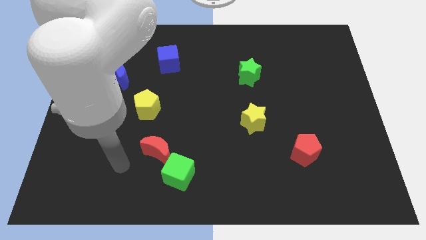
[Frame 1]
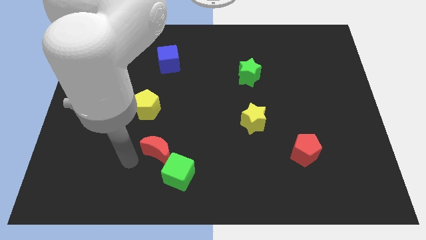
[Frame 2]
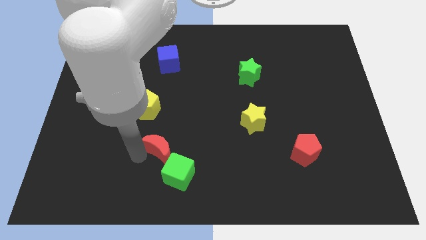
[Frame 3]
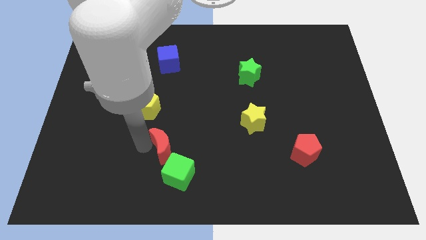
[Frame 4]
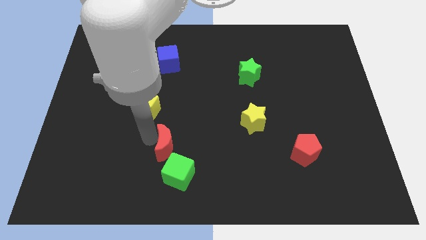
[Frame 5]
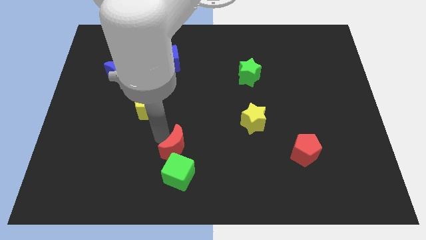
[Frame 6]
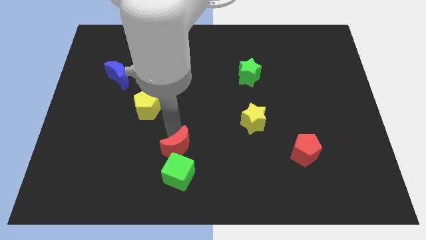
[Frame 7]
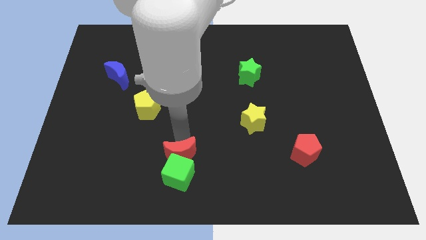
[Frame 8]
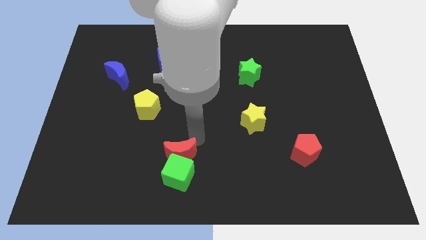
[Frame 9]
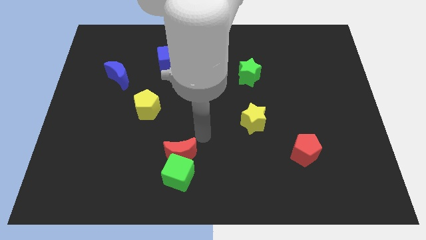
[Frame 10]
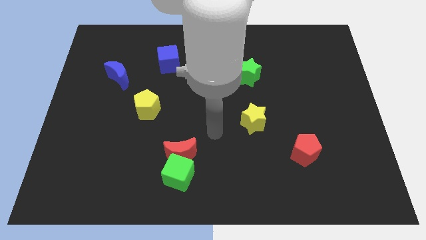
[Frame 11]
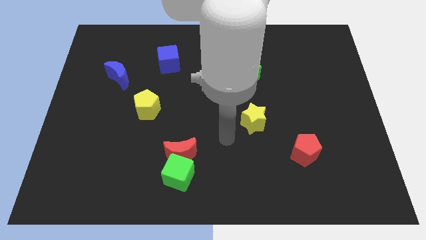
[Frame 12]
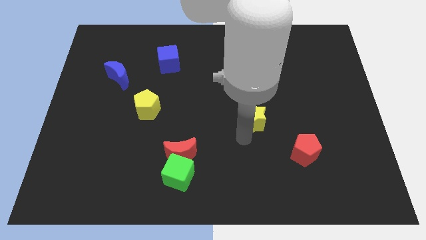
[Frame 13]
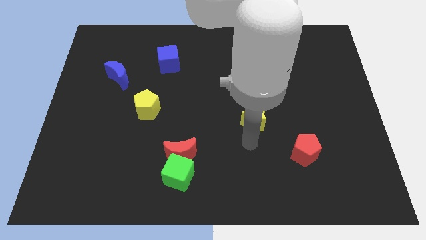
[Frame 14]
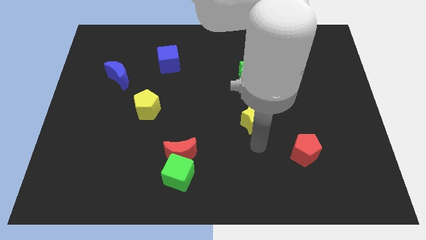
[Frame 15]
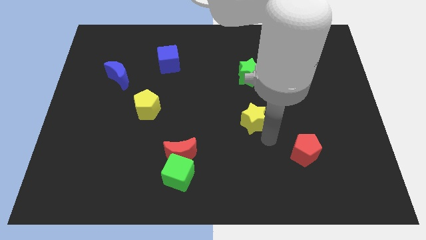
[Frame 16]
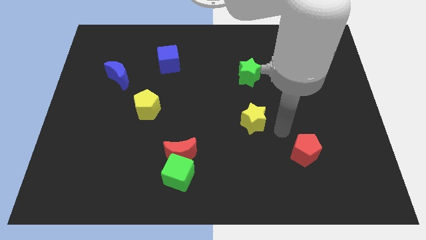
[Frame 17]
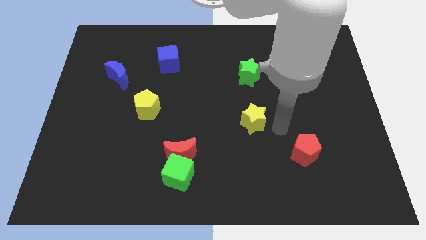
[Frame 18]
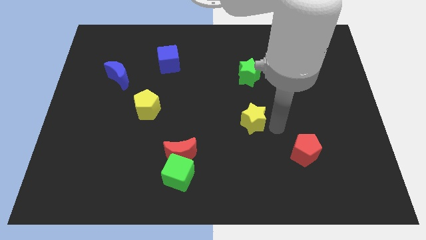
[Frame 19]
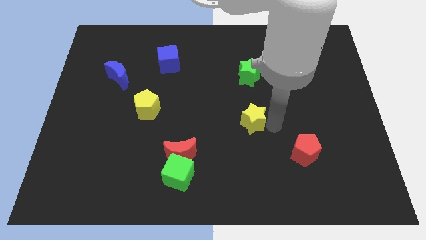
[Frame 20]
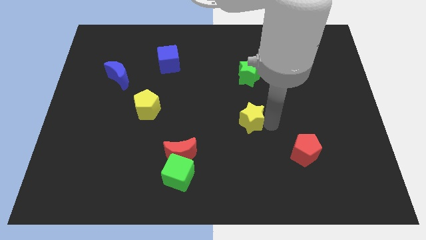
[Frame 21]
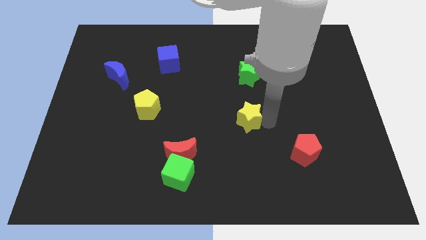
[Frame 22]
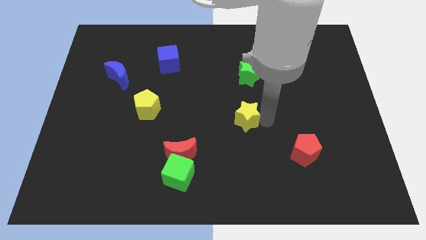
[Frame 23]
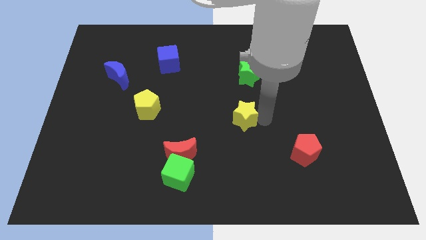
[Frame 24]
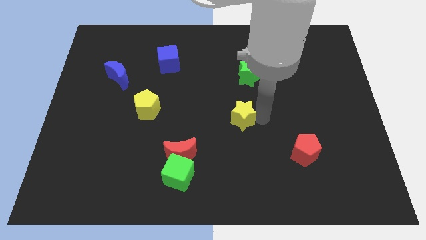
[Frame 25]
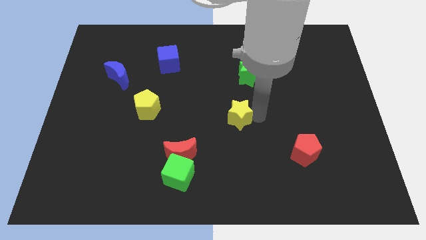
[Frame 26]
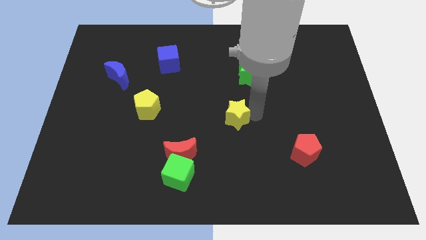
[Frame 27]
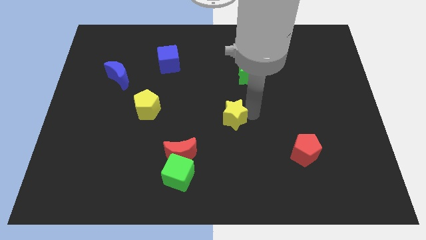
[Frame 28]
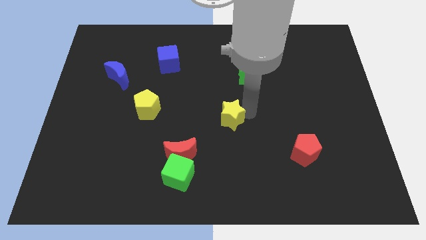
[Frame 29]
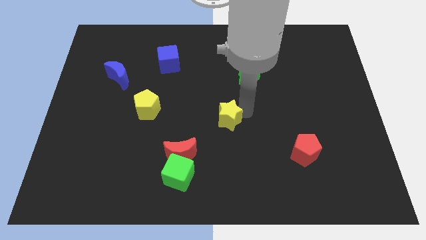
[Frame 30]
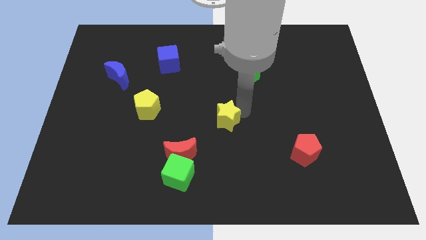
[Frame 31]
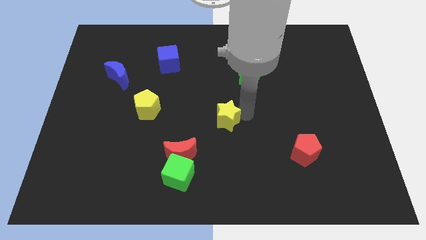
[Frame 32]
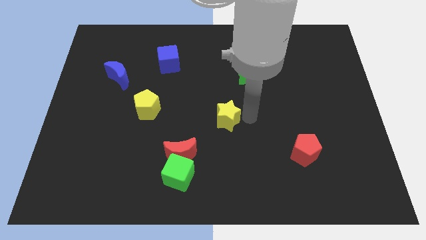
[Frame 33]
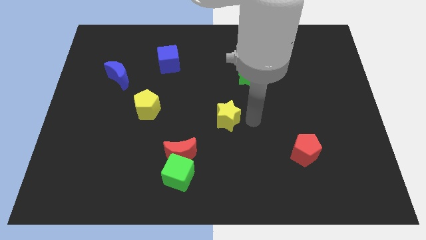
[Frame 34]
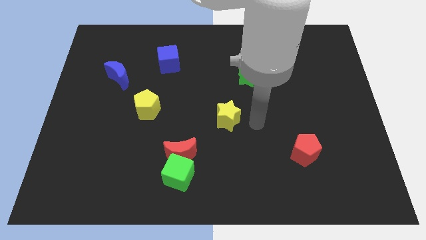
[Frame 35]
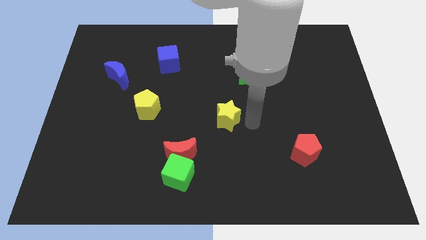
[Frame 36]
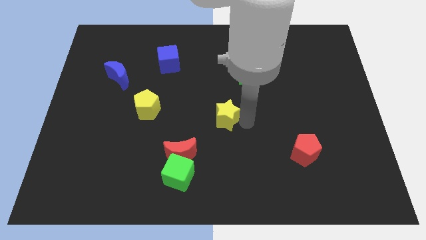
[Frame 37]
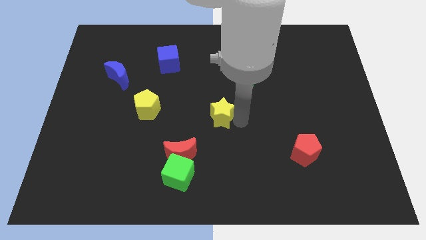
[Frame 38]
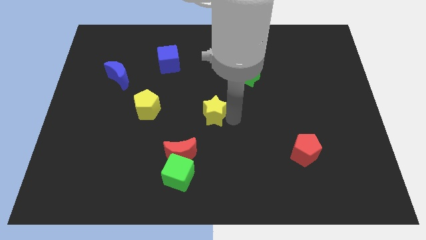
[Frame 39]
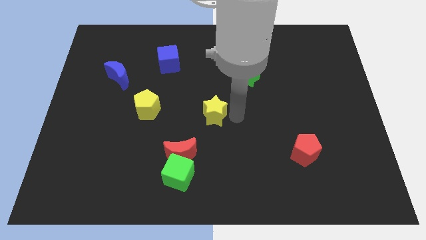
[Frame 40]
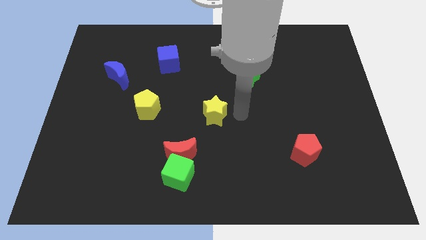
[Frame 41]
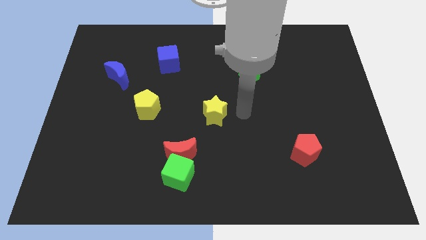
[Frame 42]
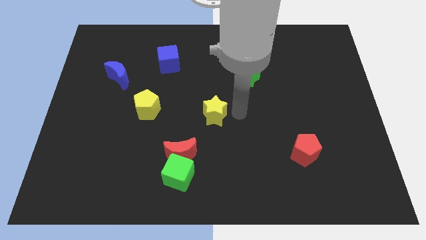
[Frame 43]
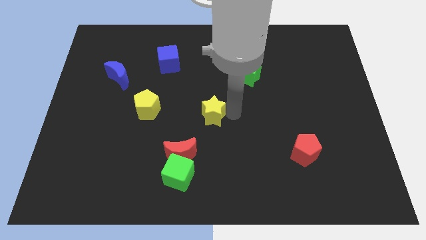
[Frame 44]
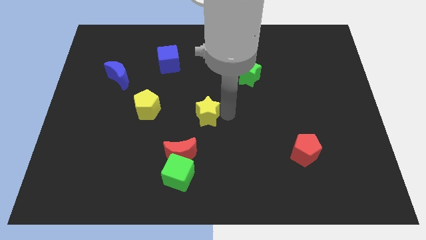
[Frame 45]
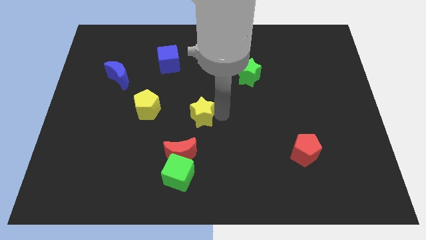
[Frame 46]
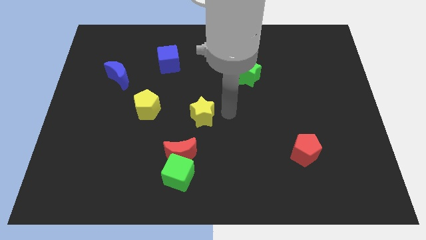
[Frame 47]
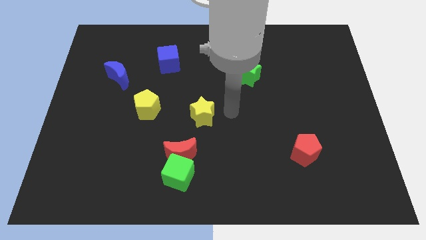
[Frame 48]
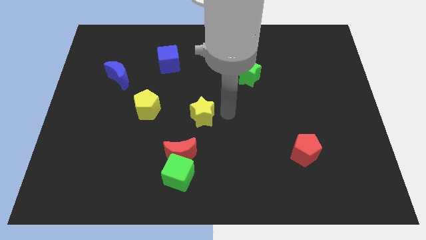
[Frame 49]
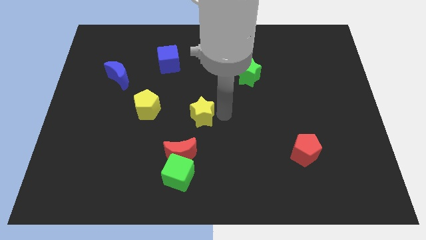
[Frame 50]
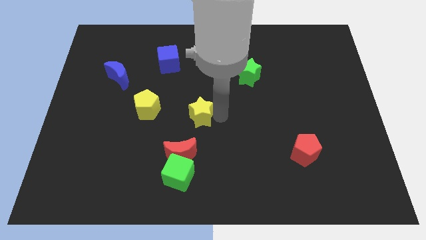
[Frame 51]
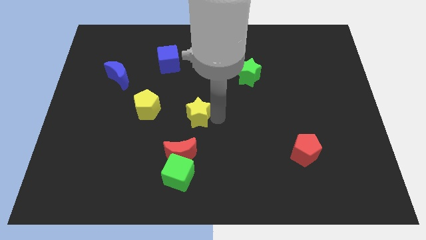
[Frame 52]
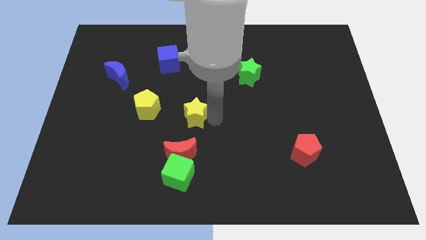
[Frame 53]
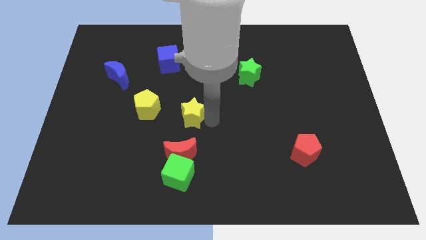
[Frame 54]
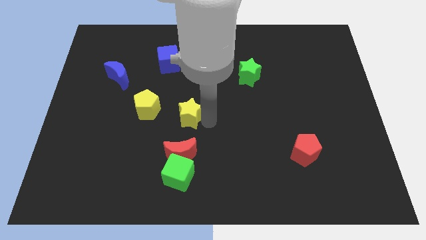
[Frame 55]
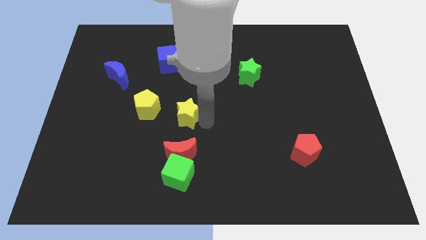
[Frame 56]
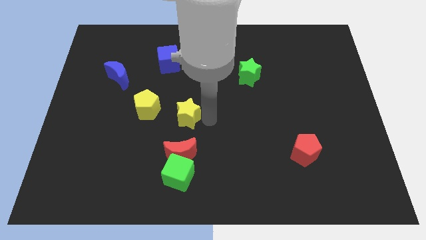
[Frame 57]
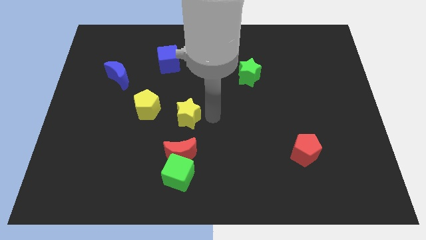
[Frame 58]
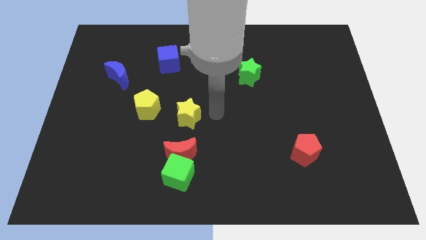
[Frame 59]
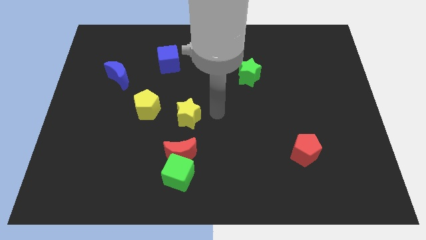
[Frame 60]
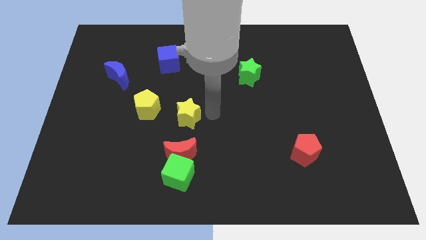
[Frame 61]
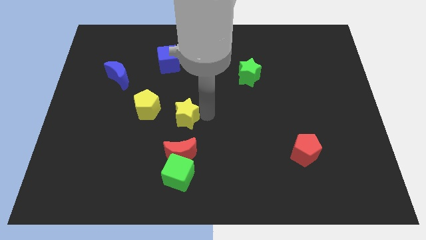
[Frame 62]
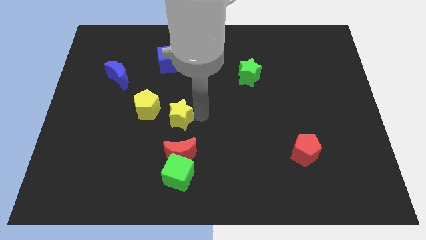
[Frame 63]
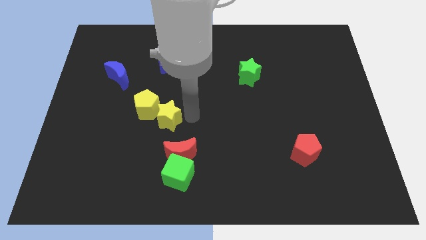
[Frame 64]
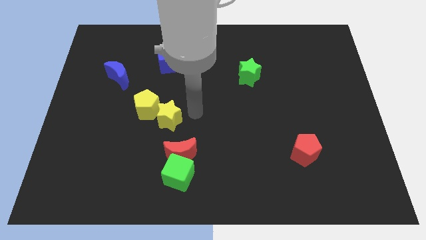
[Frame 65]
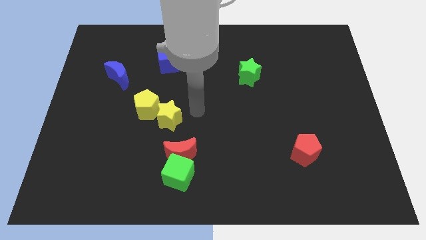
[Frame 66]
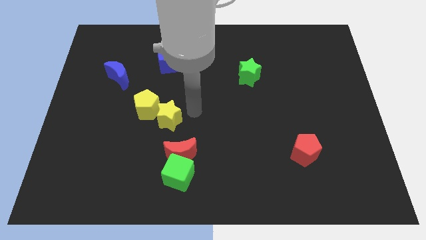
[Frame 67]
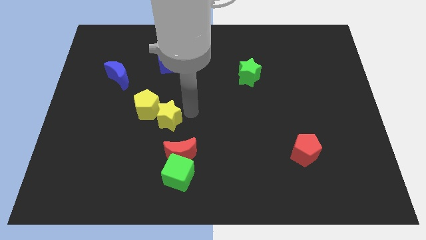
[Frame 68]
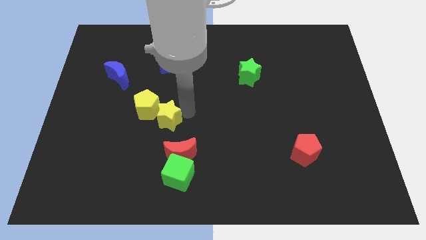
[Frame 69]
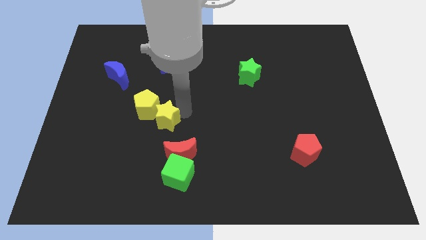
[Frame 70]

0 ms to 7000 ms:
slide the yellow star to the left

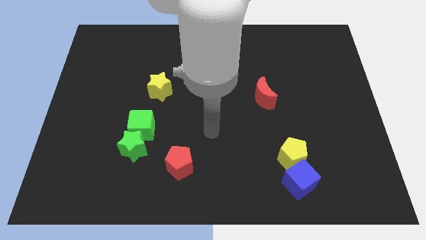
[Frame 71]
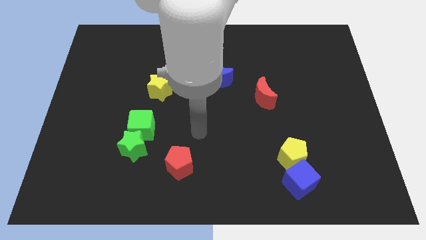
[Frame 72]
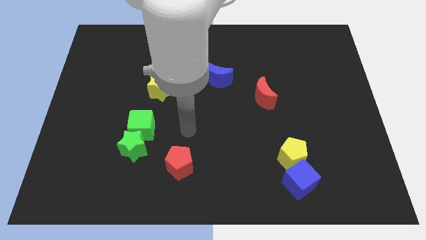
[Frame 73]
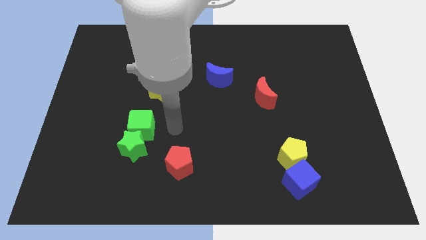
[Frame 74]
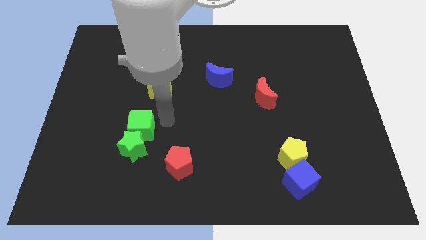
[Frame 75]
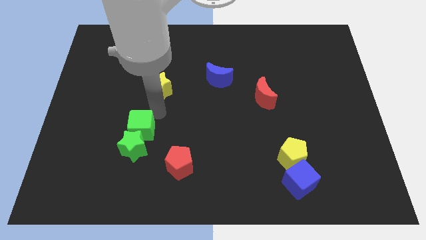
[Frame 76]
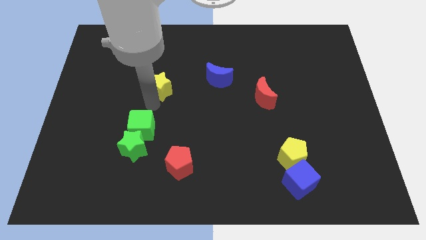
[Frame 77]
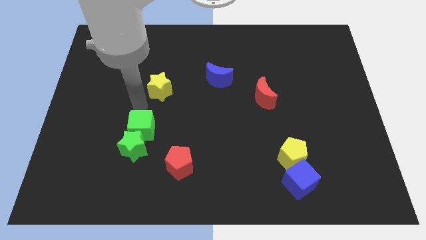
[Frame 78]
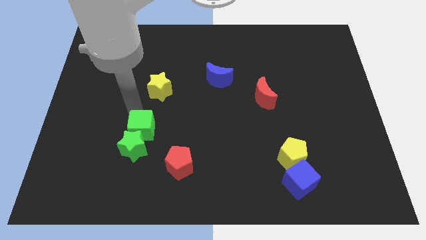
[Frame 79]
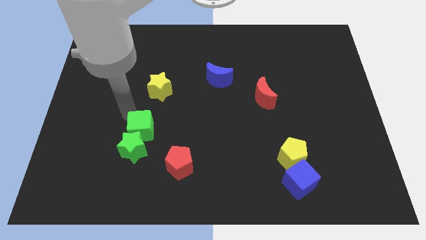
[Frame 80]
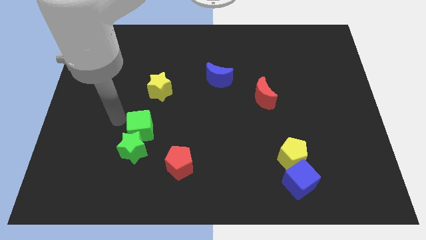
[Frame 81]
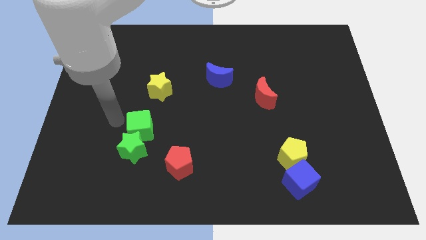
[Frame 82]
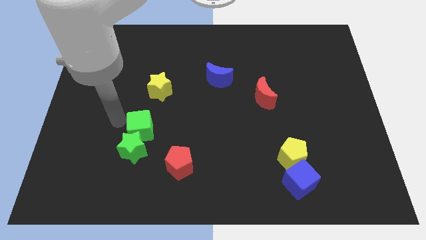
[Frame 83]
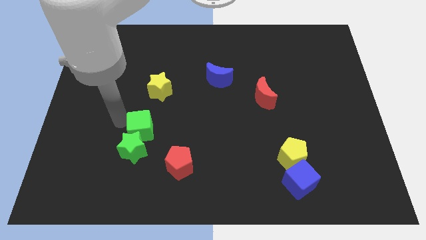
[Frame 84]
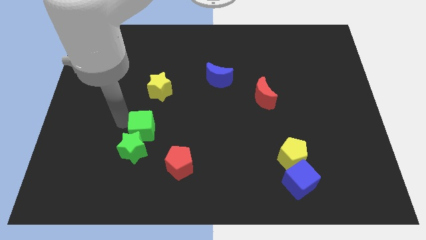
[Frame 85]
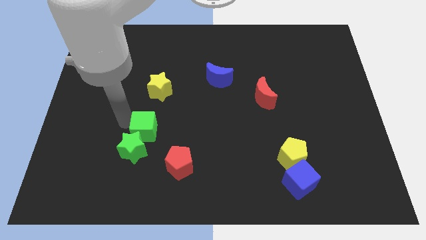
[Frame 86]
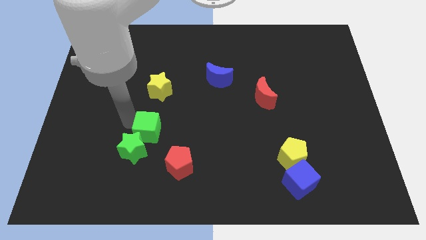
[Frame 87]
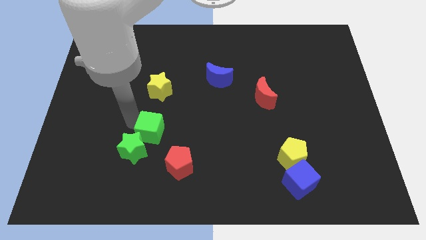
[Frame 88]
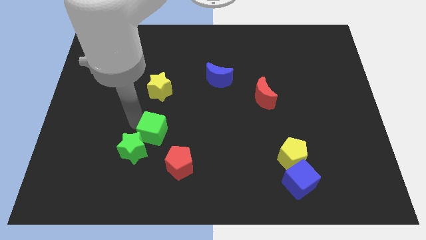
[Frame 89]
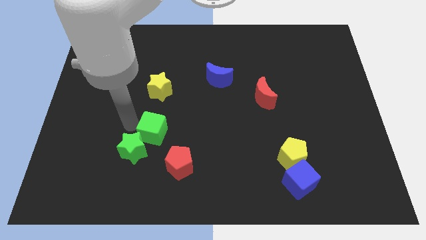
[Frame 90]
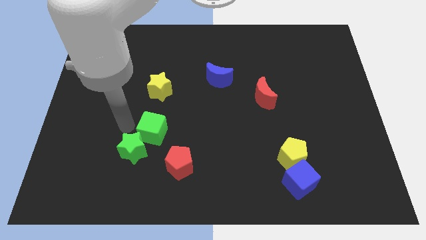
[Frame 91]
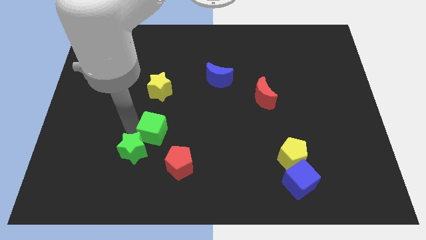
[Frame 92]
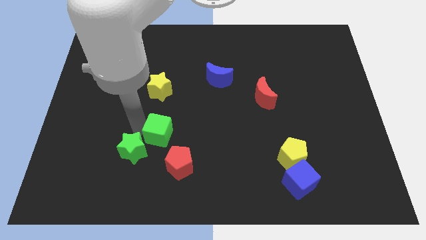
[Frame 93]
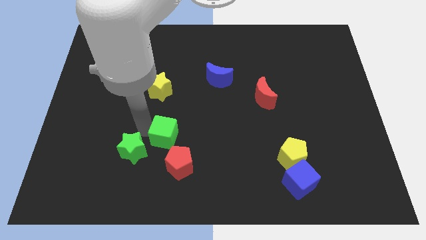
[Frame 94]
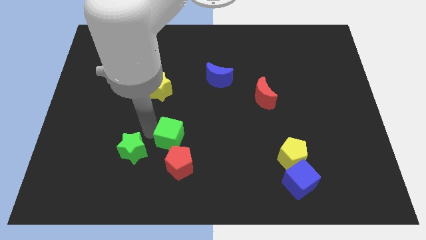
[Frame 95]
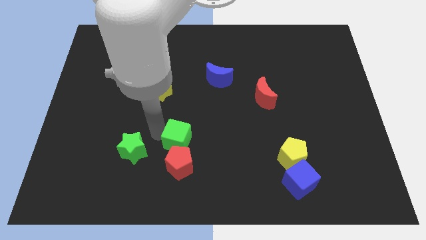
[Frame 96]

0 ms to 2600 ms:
slide the green cube down and to the right diagonally somewhat
